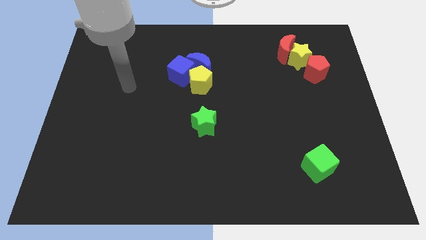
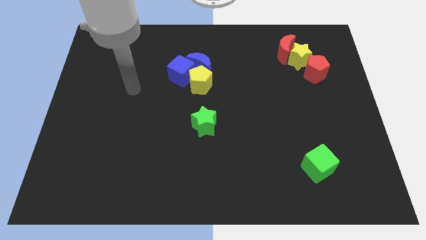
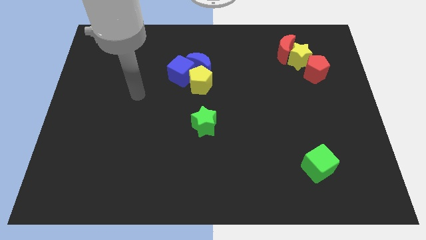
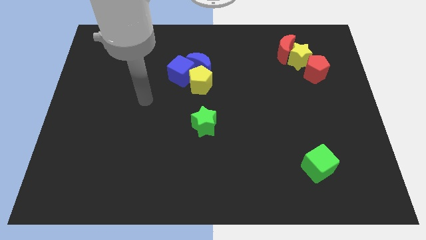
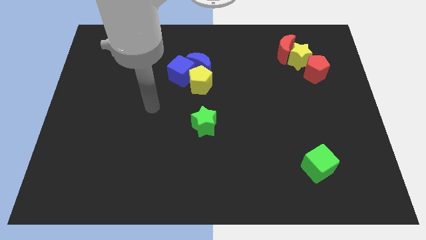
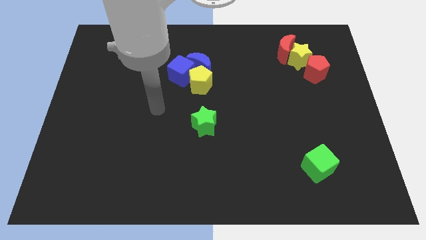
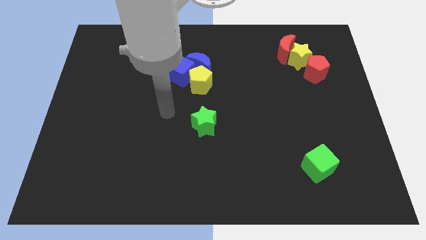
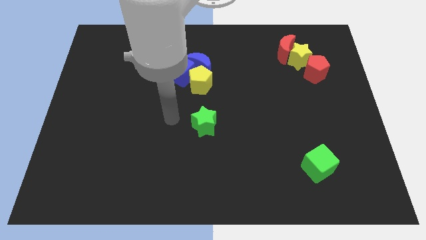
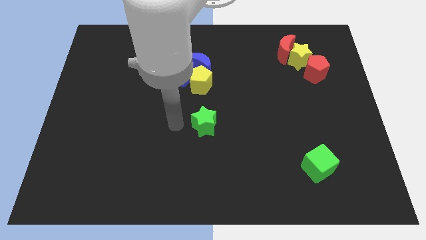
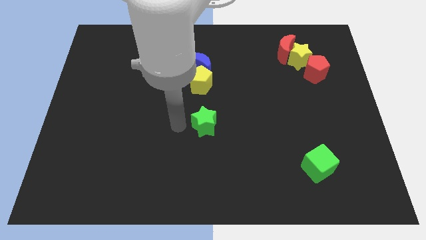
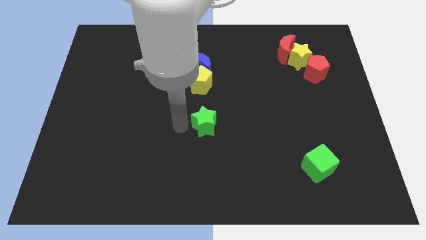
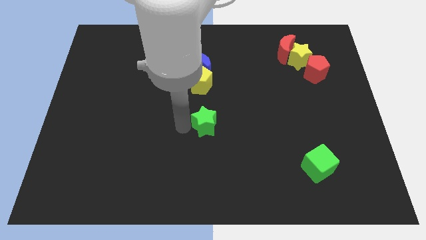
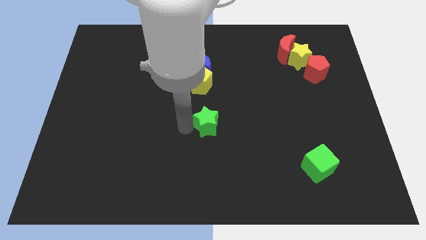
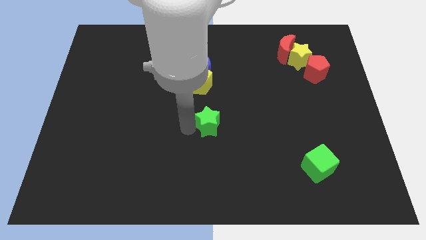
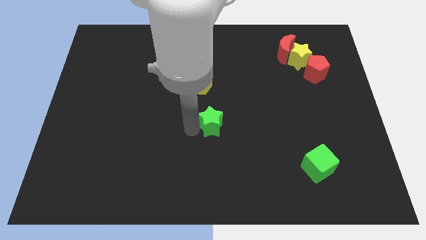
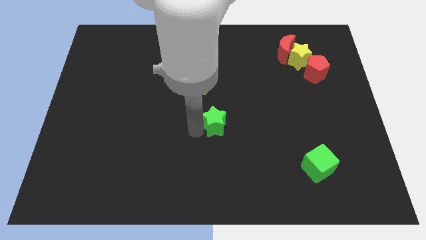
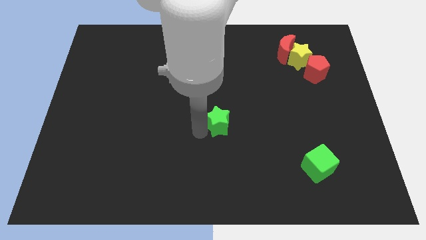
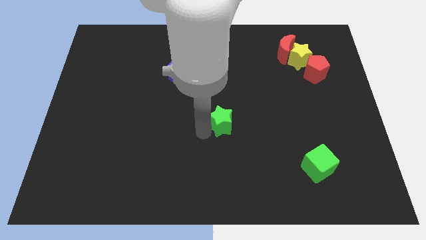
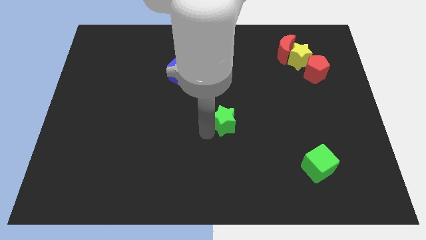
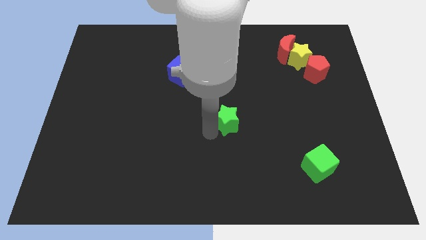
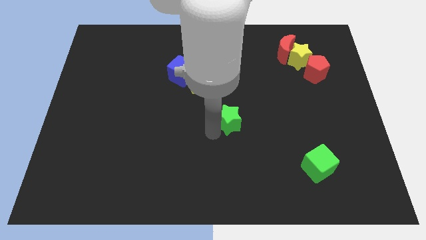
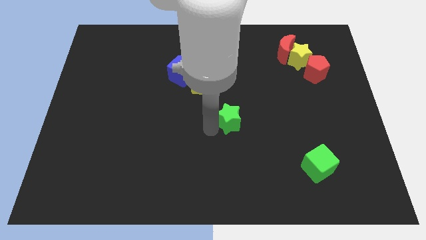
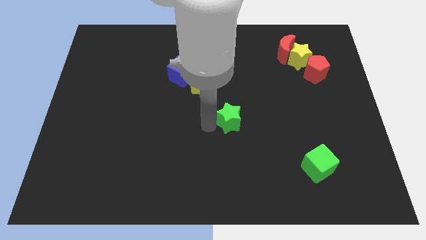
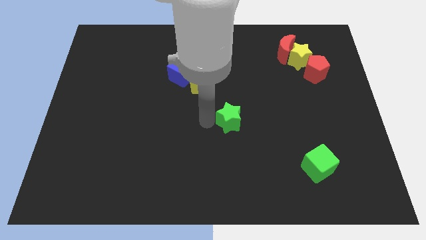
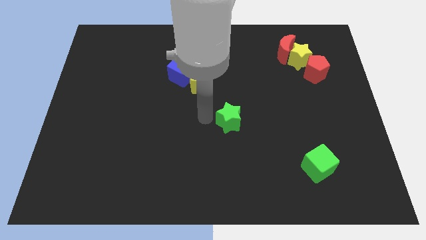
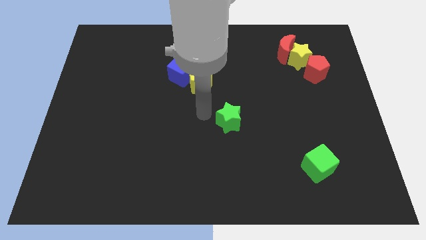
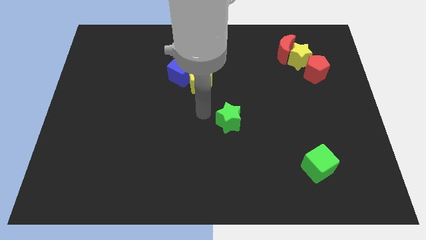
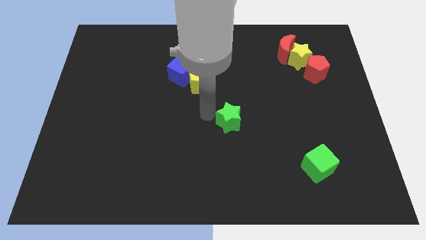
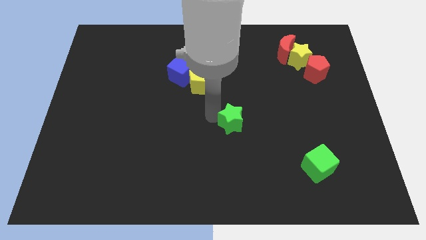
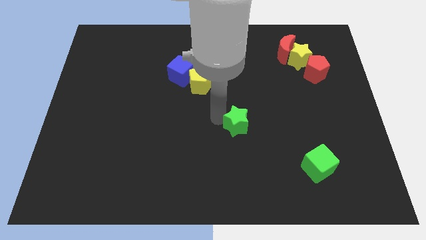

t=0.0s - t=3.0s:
move the green star slightly to the right

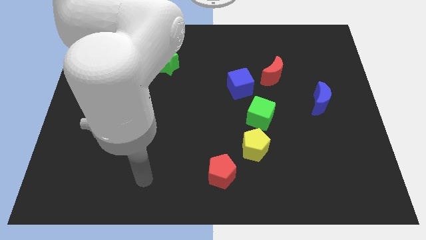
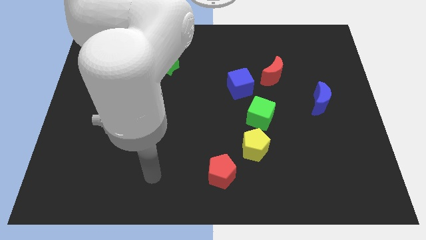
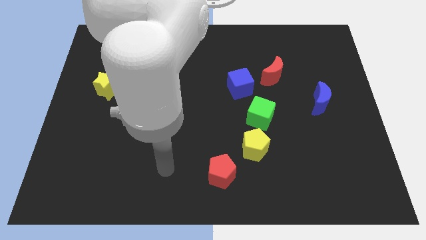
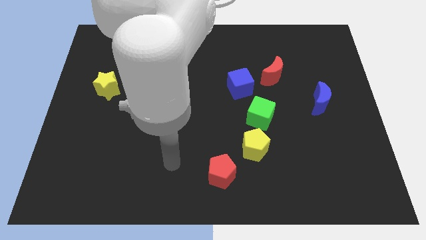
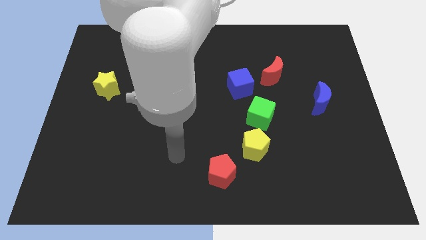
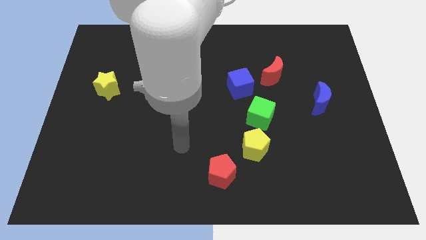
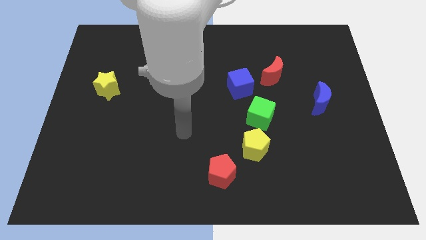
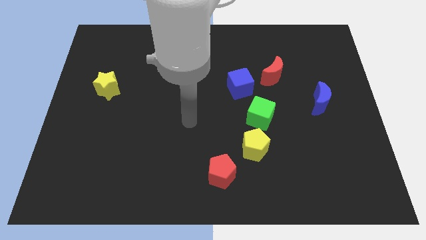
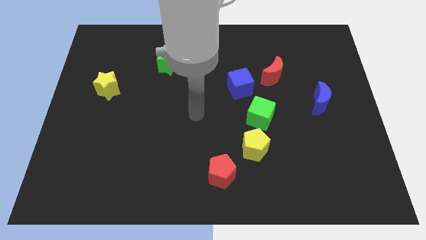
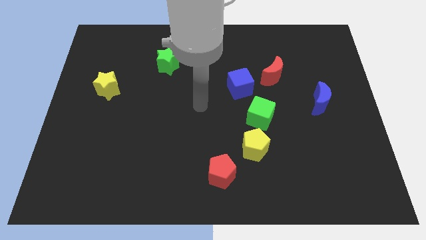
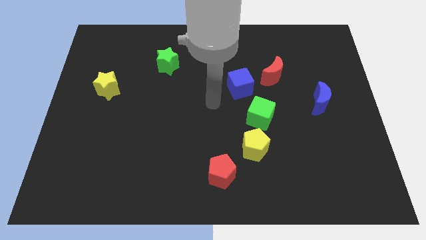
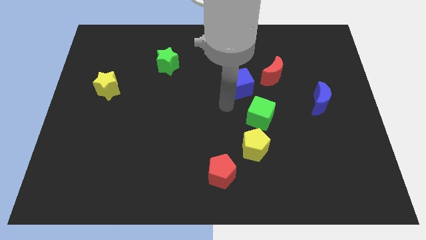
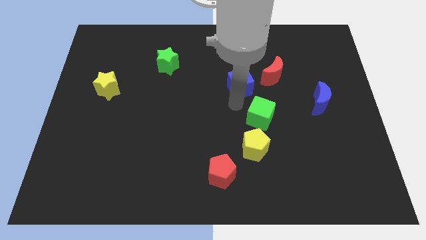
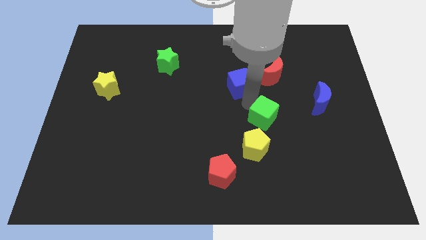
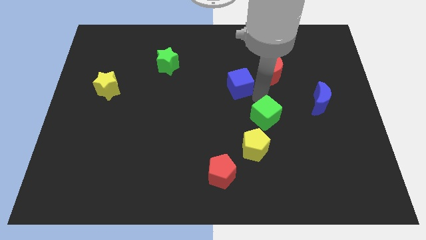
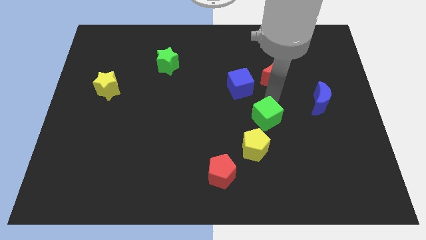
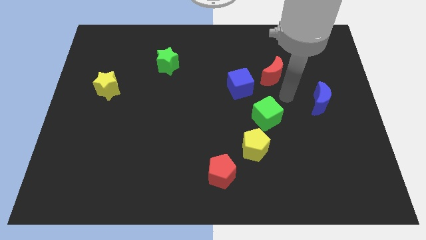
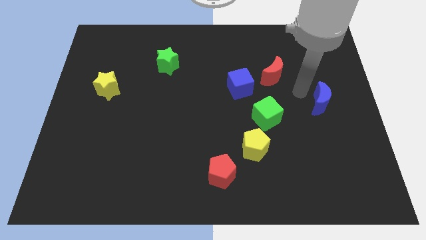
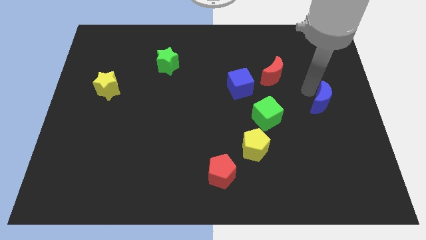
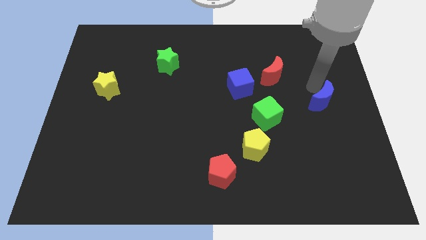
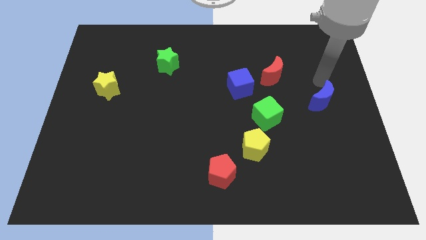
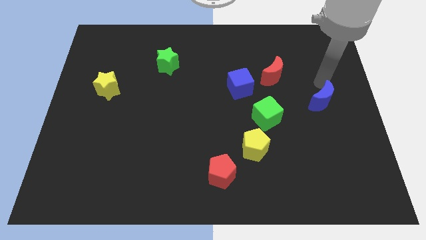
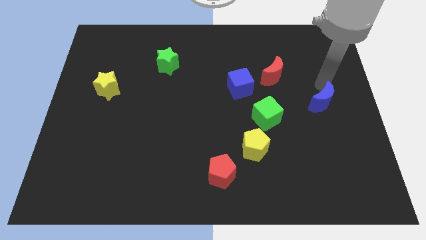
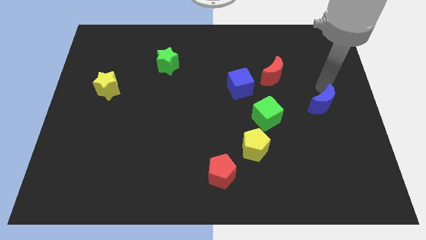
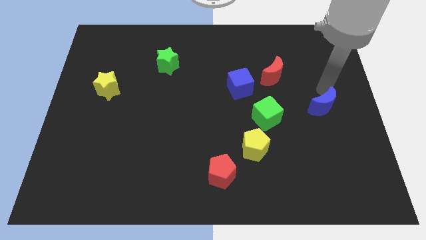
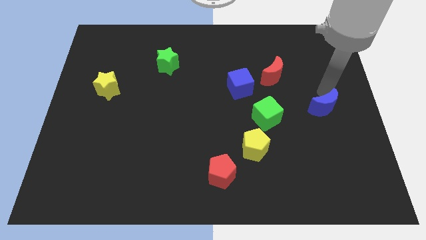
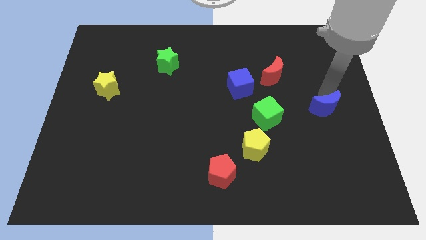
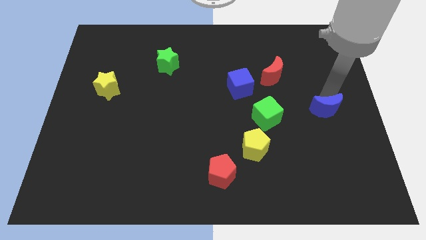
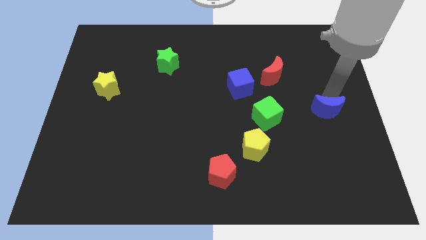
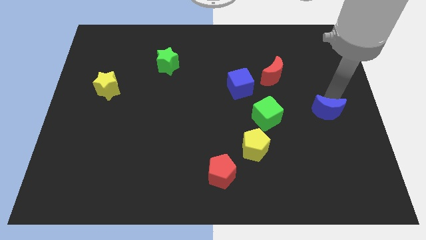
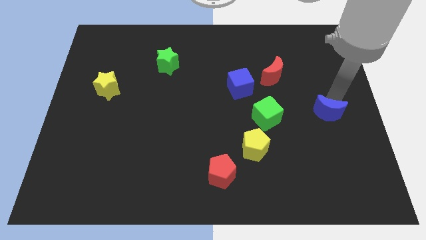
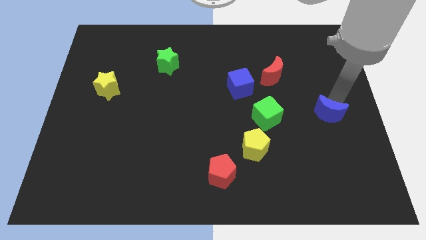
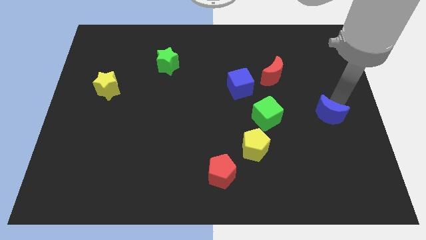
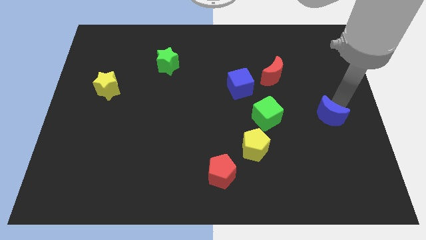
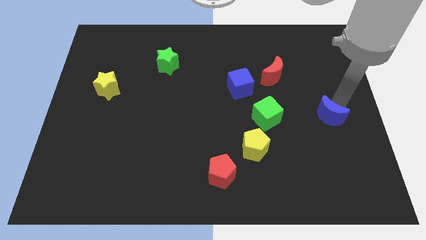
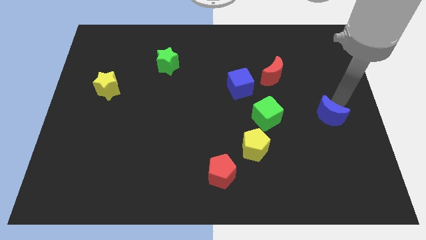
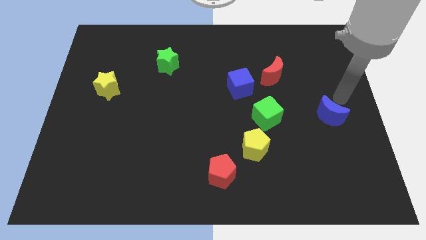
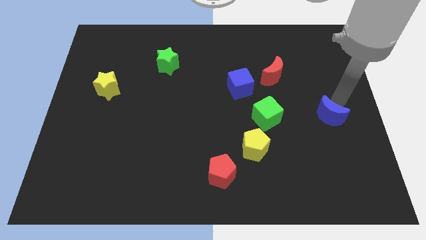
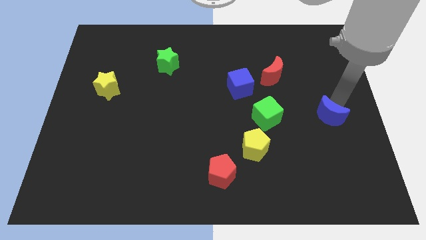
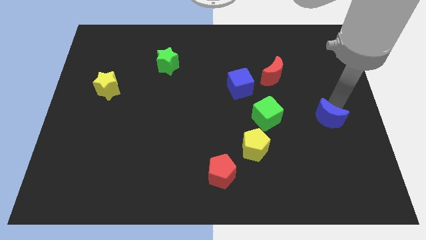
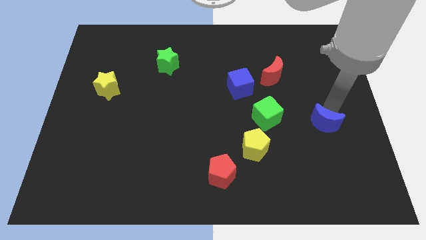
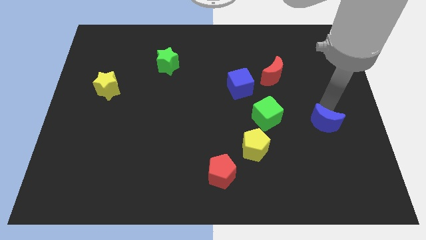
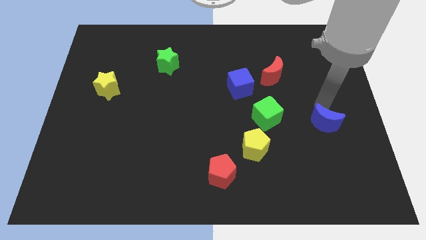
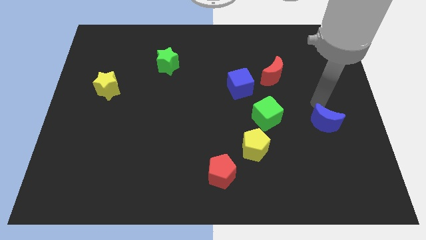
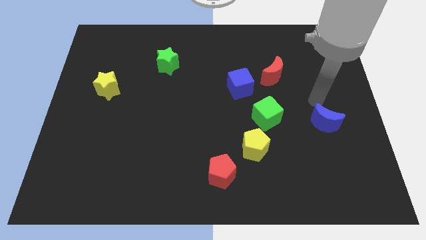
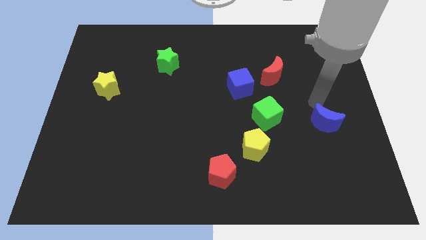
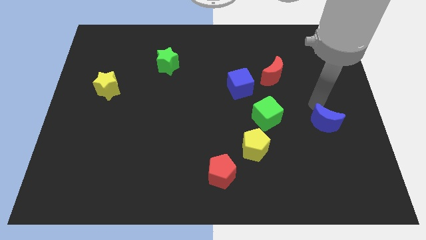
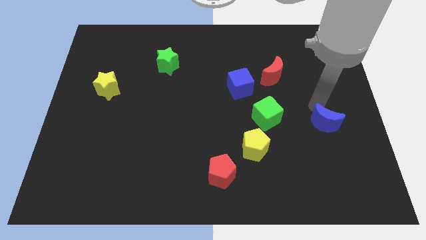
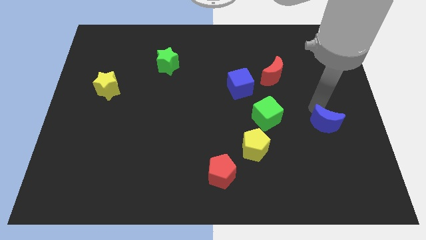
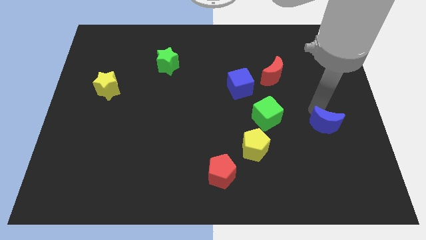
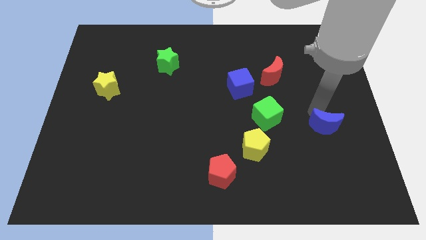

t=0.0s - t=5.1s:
move the blue moon downwards somewhat

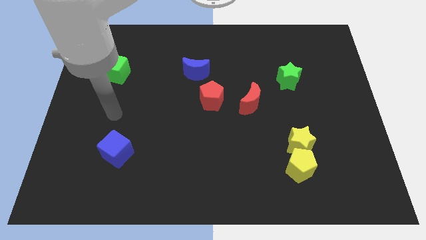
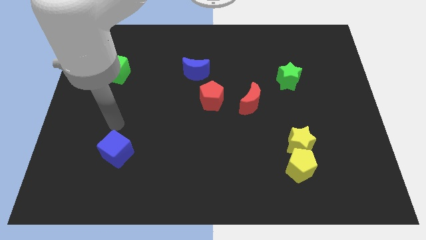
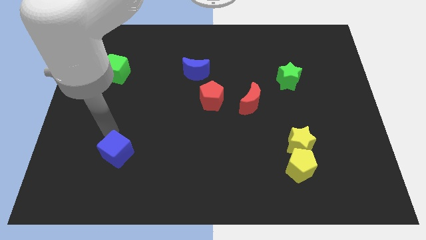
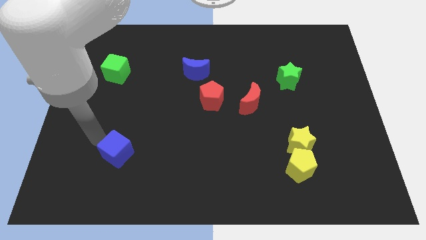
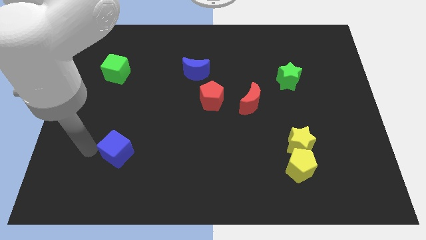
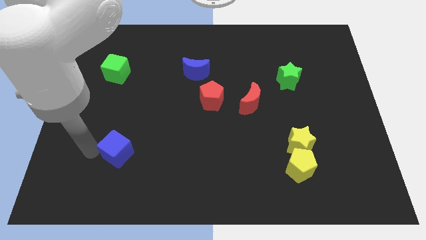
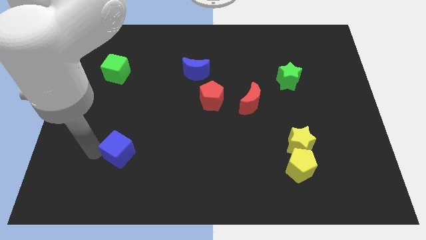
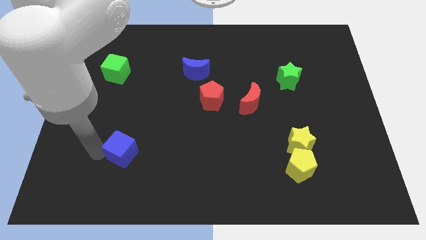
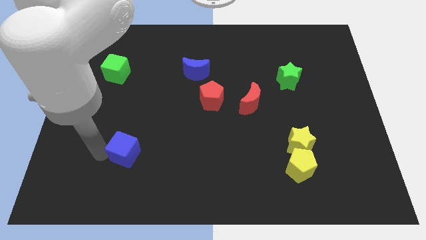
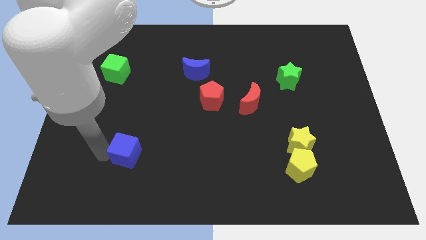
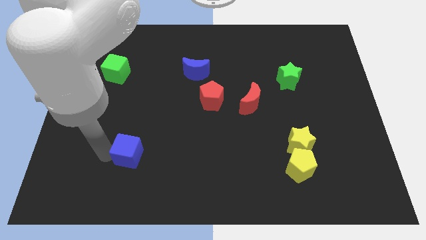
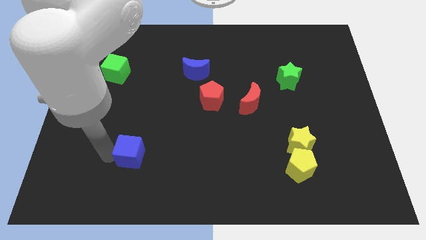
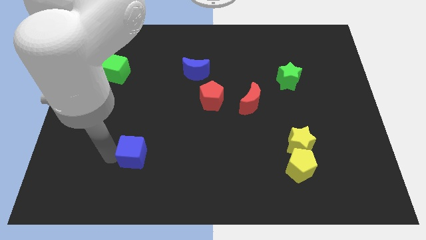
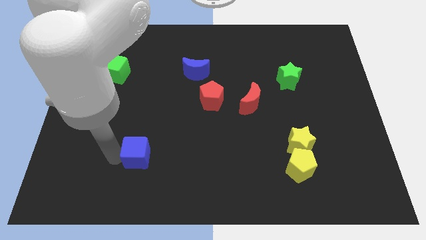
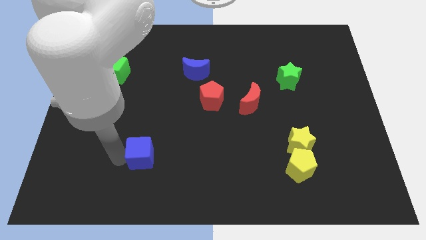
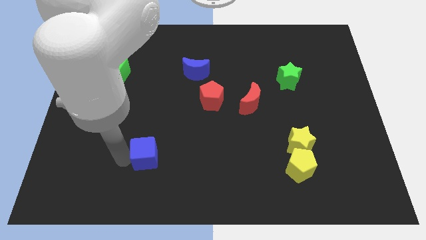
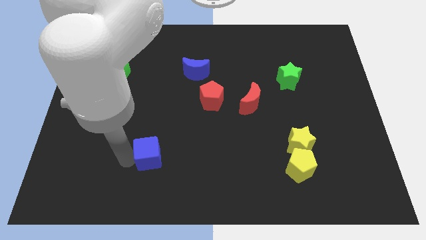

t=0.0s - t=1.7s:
slide the blue cube right a bit
